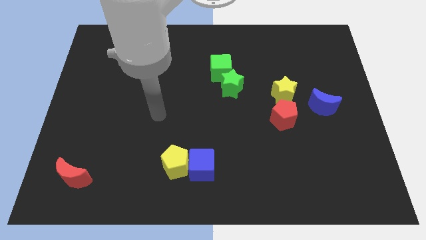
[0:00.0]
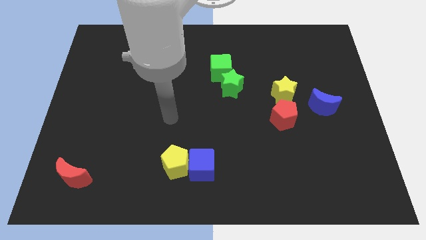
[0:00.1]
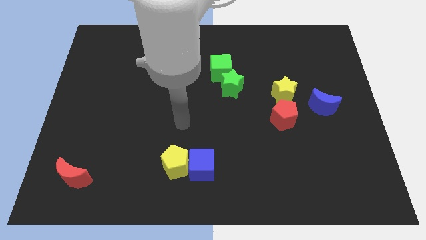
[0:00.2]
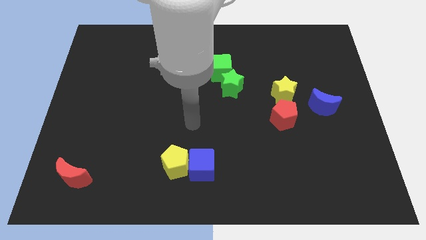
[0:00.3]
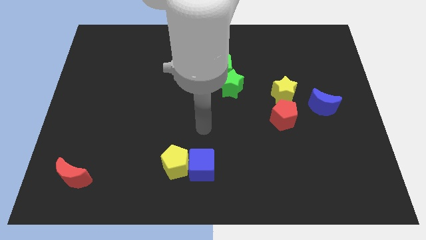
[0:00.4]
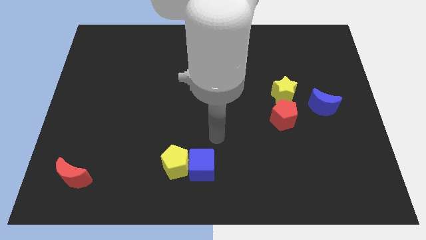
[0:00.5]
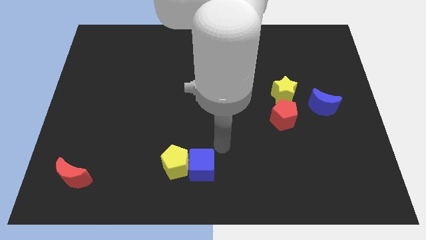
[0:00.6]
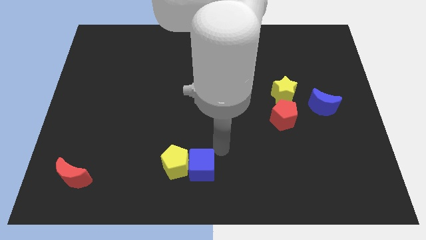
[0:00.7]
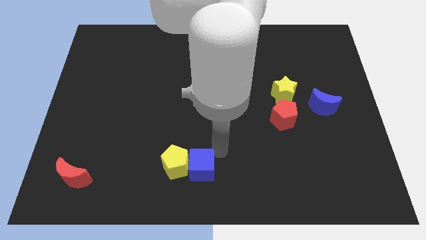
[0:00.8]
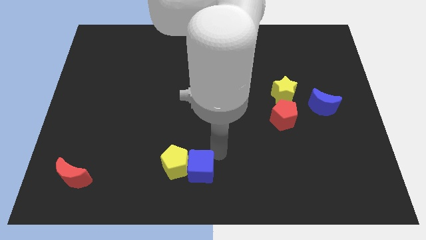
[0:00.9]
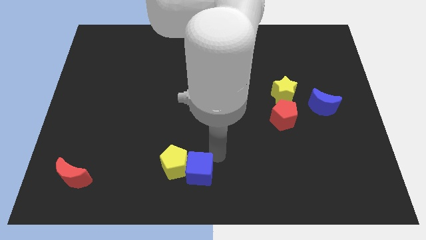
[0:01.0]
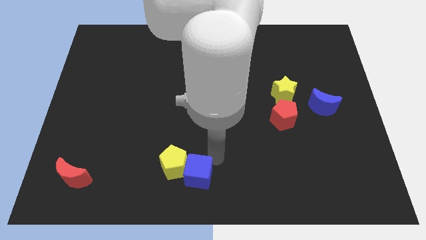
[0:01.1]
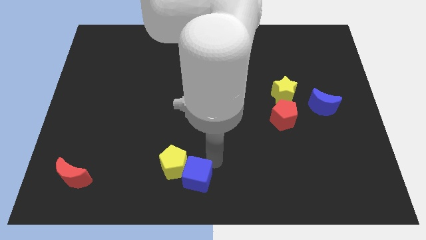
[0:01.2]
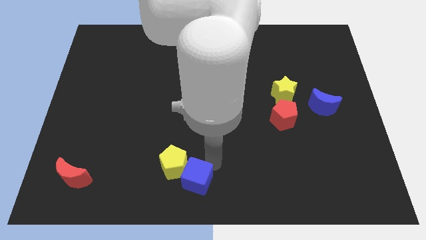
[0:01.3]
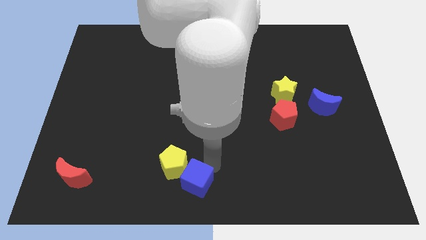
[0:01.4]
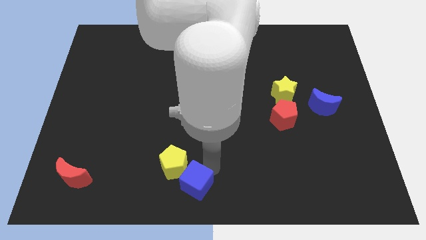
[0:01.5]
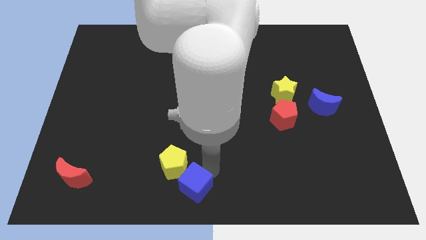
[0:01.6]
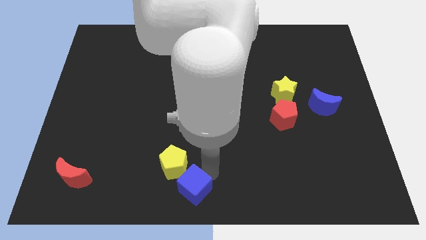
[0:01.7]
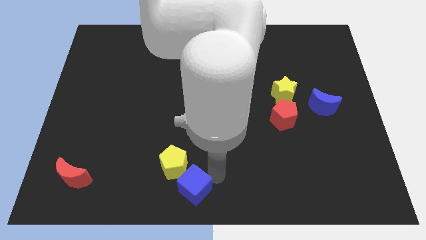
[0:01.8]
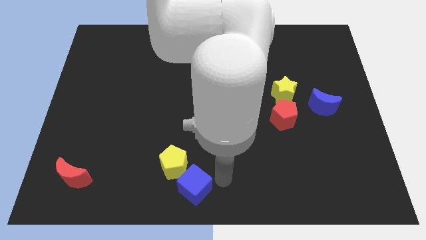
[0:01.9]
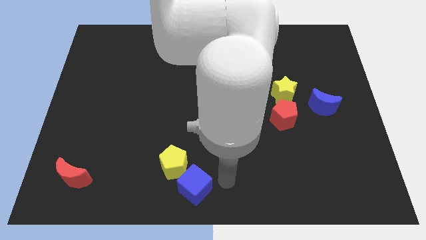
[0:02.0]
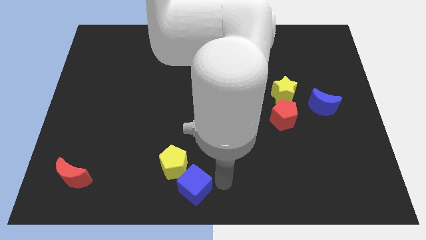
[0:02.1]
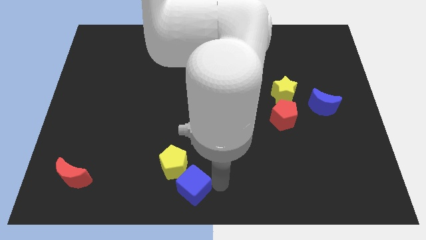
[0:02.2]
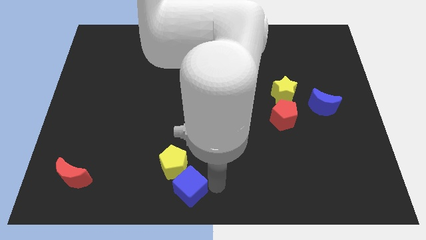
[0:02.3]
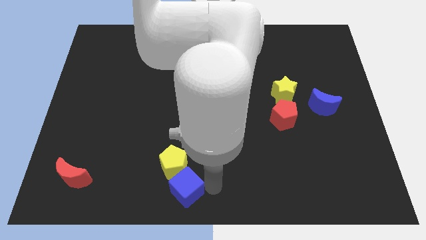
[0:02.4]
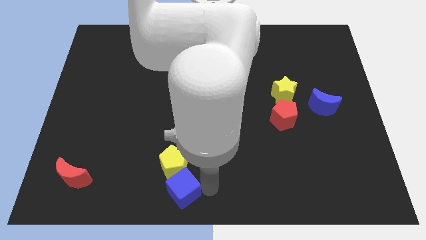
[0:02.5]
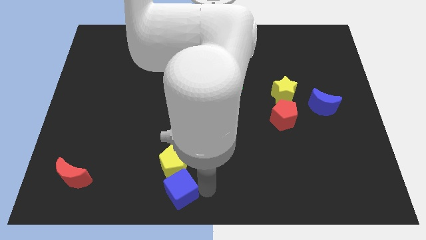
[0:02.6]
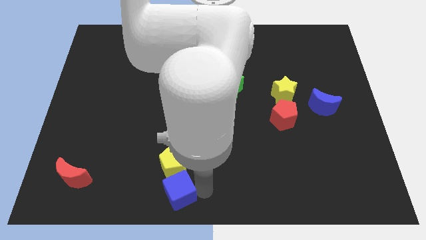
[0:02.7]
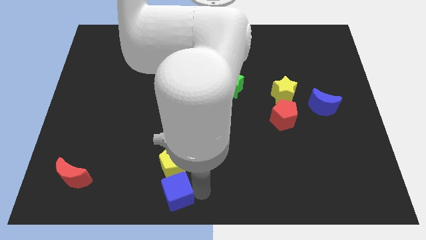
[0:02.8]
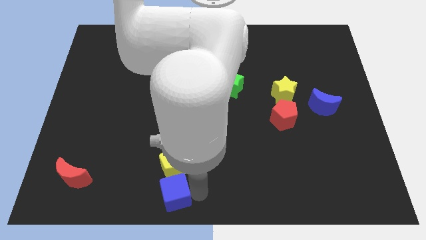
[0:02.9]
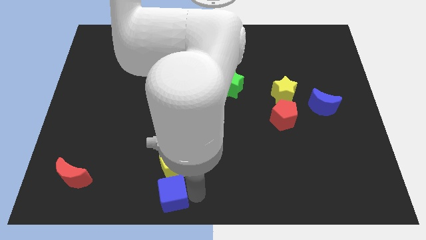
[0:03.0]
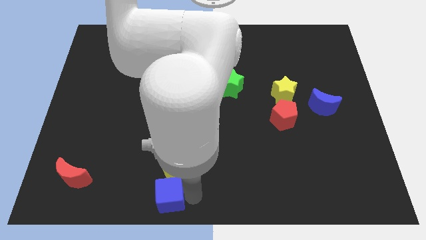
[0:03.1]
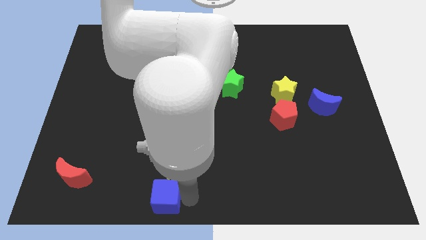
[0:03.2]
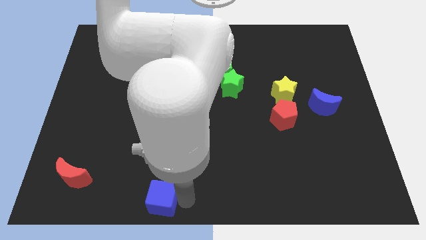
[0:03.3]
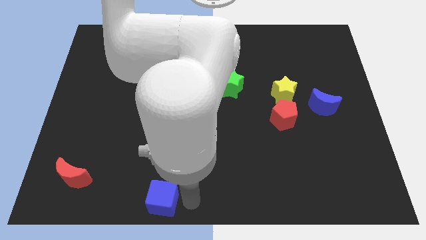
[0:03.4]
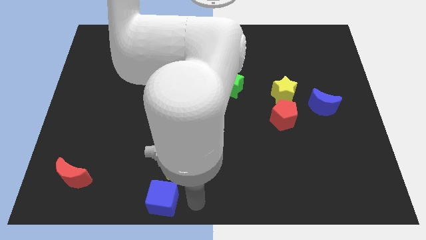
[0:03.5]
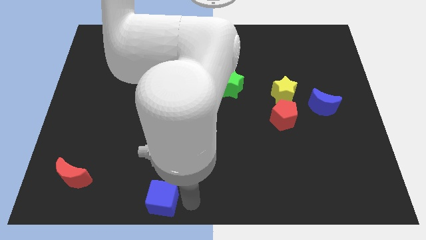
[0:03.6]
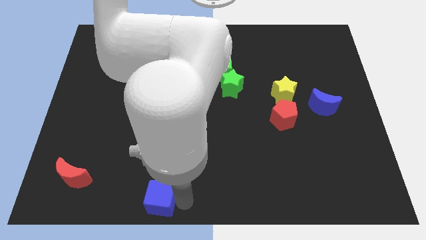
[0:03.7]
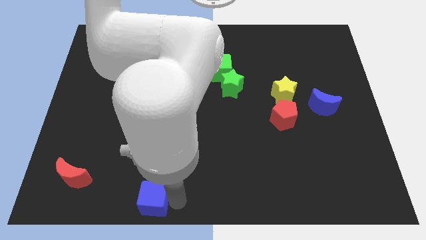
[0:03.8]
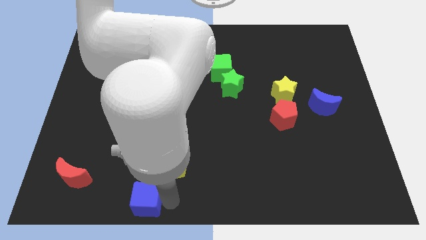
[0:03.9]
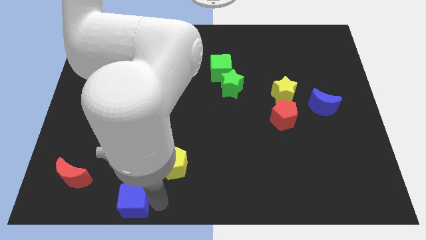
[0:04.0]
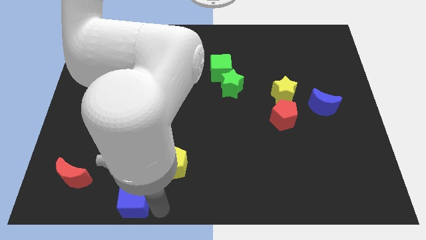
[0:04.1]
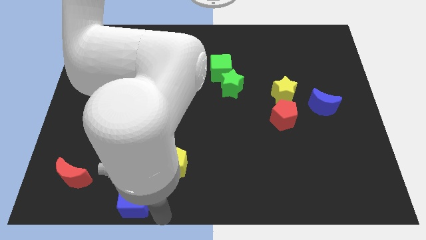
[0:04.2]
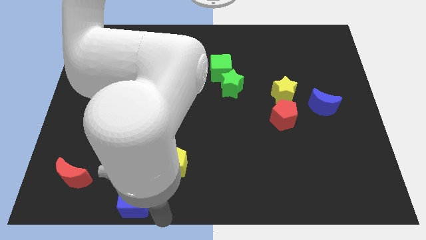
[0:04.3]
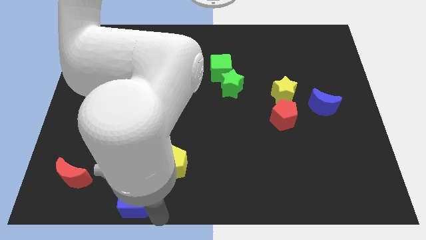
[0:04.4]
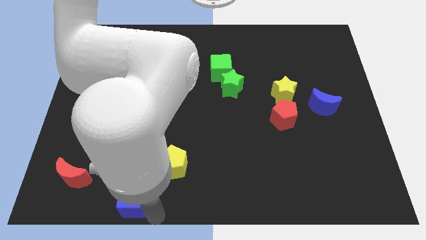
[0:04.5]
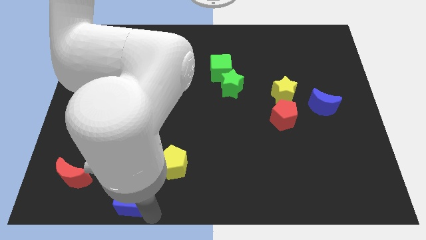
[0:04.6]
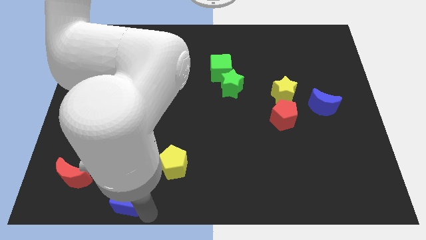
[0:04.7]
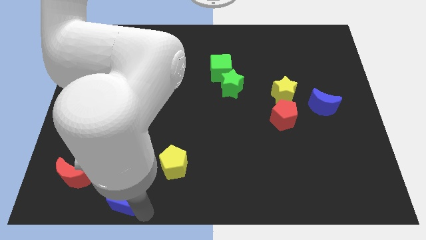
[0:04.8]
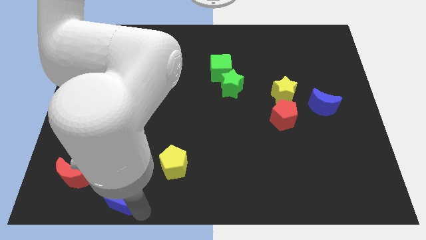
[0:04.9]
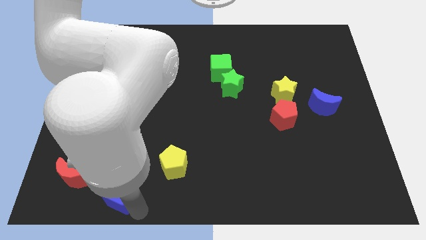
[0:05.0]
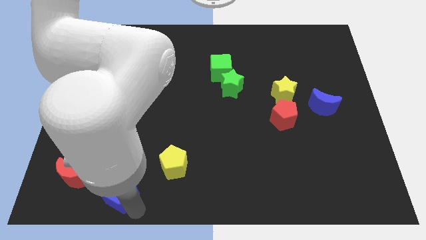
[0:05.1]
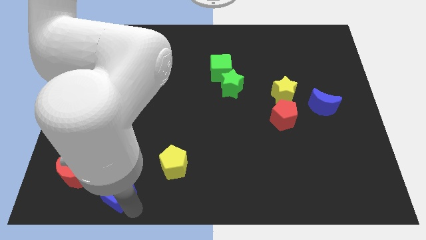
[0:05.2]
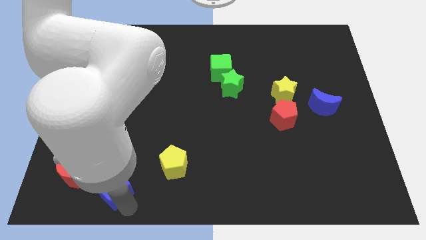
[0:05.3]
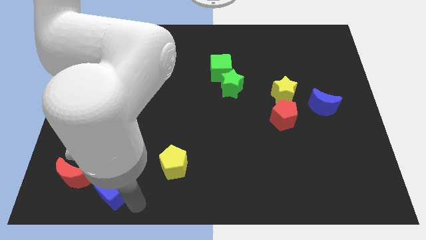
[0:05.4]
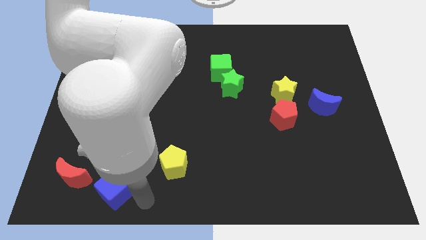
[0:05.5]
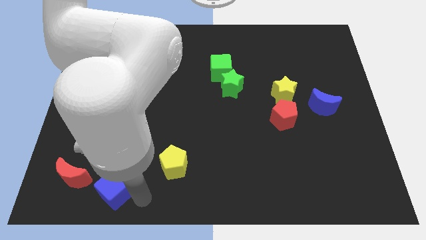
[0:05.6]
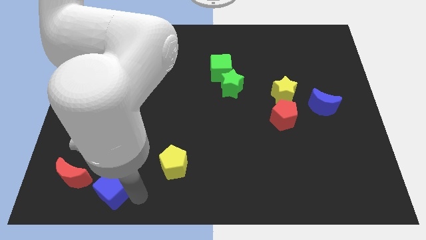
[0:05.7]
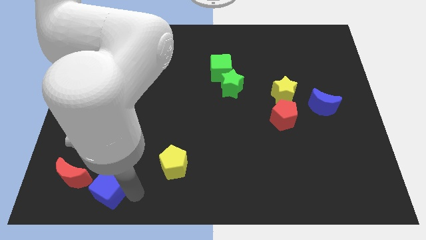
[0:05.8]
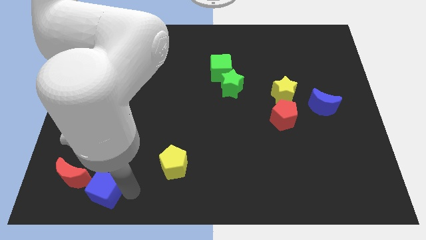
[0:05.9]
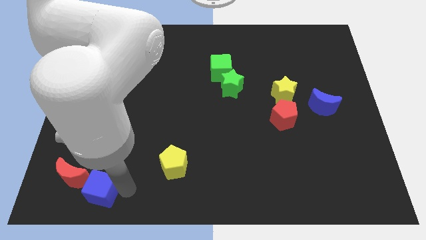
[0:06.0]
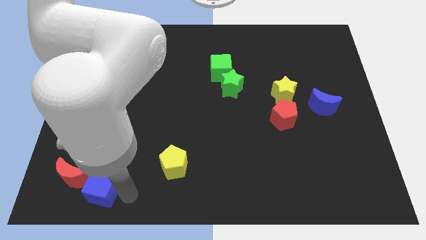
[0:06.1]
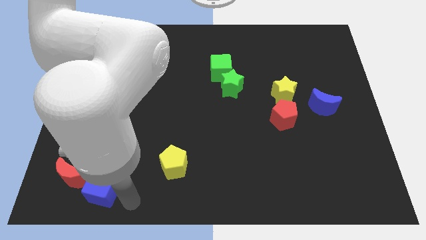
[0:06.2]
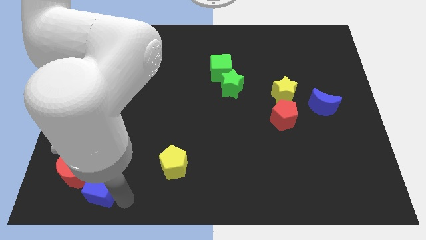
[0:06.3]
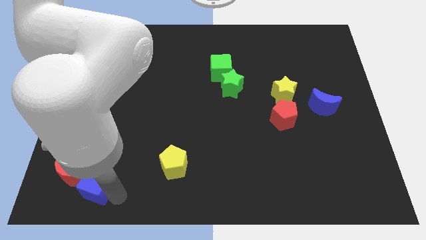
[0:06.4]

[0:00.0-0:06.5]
put the blue cube close to the red moon

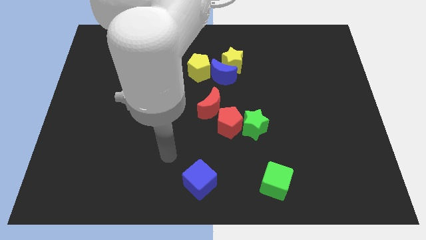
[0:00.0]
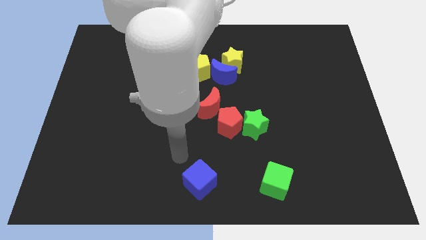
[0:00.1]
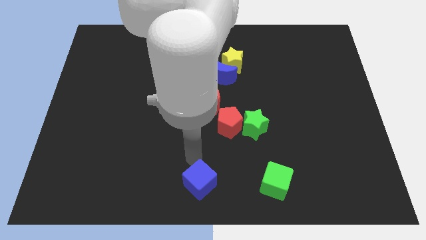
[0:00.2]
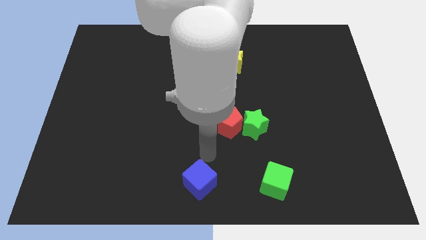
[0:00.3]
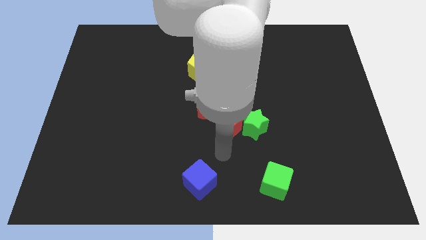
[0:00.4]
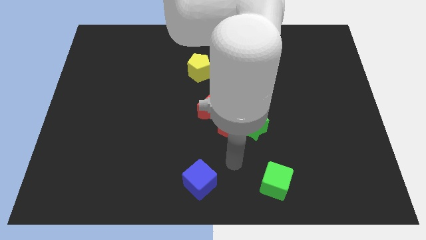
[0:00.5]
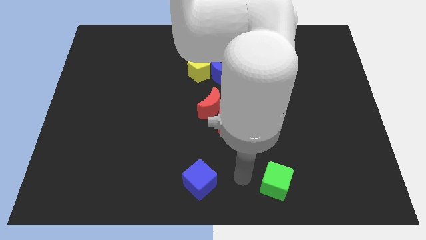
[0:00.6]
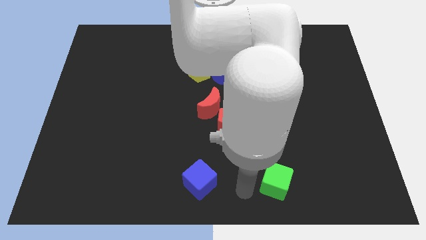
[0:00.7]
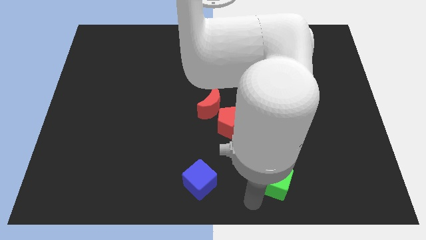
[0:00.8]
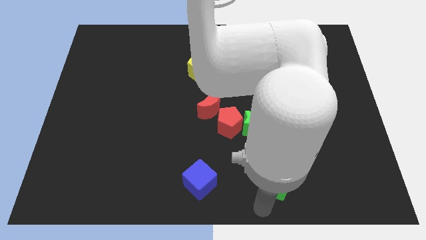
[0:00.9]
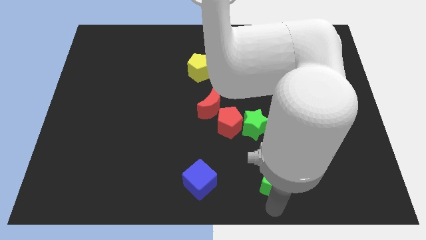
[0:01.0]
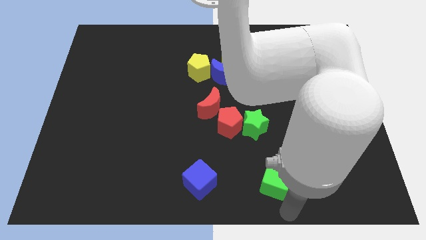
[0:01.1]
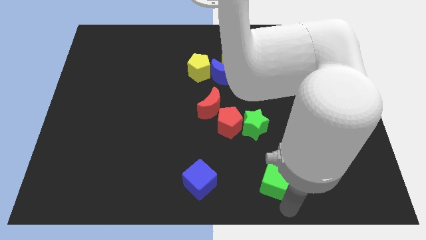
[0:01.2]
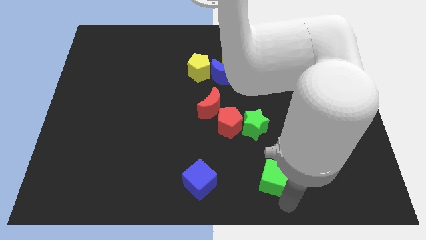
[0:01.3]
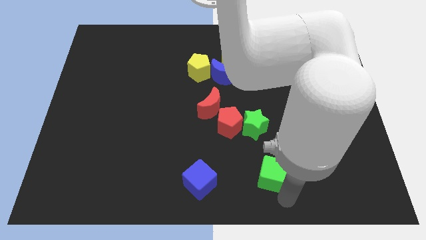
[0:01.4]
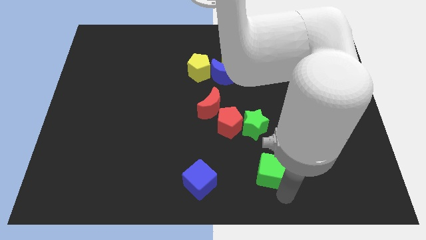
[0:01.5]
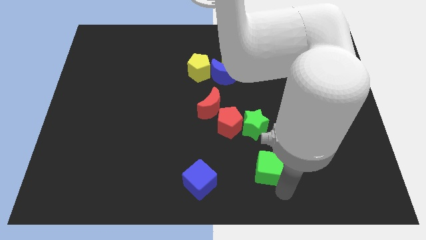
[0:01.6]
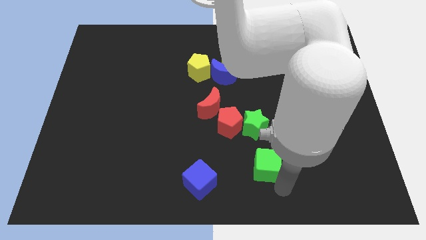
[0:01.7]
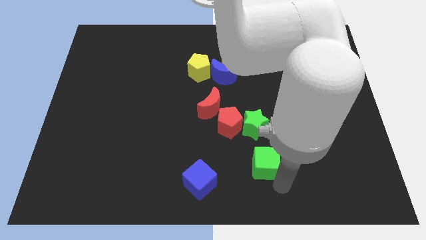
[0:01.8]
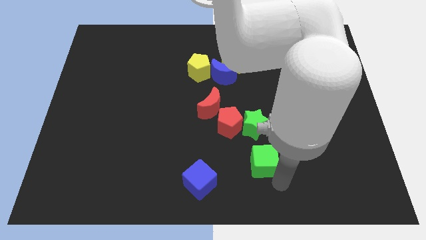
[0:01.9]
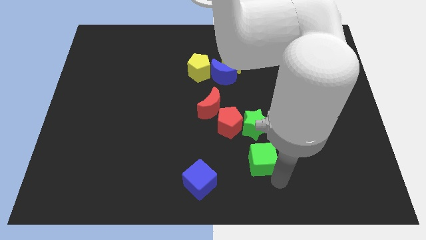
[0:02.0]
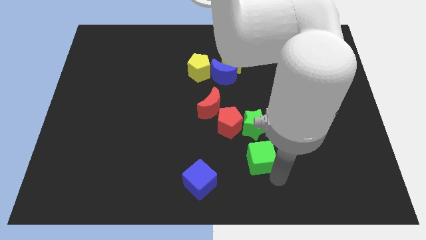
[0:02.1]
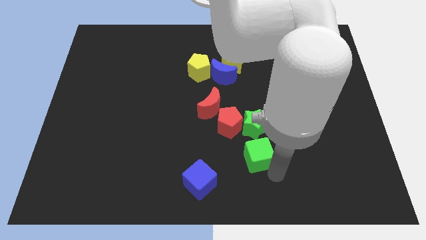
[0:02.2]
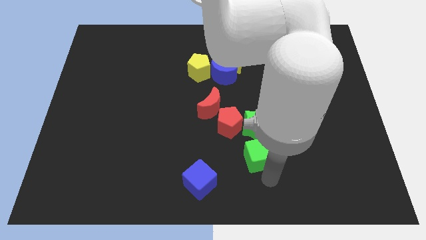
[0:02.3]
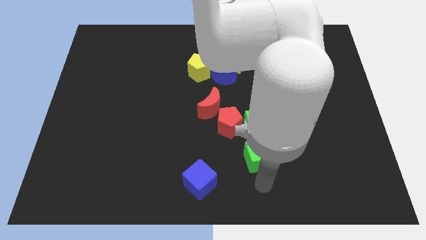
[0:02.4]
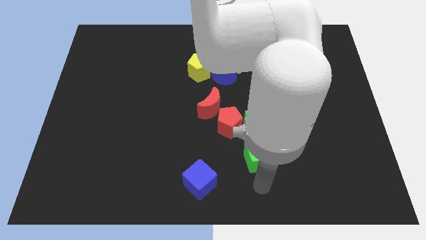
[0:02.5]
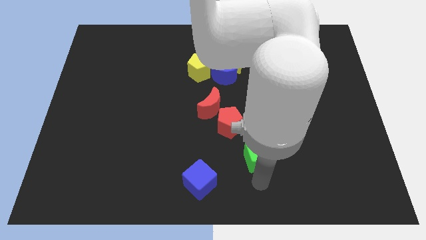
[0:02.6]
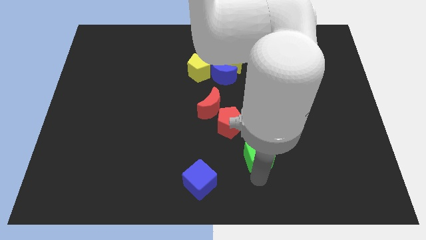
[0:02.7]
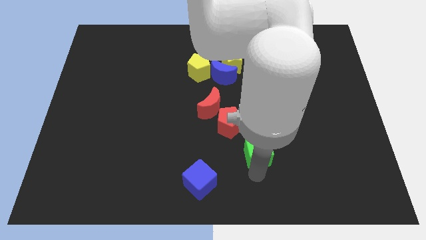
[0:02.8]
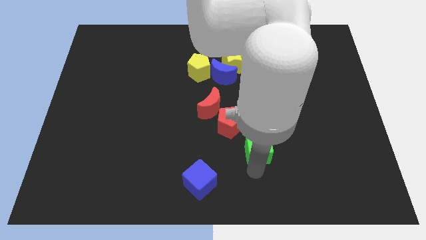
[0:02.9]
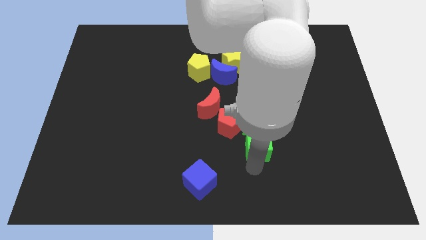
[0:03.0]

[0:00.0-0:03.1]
put the green cube close to the green star
